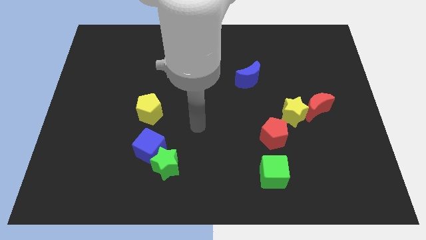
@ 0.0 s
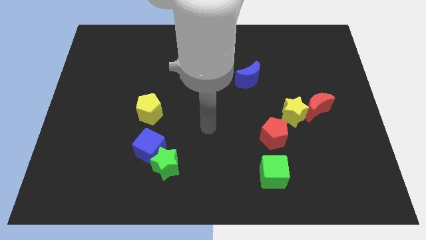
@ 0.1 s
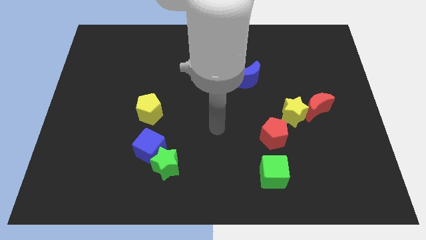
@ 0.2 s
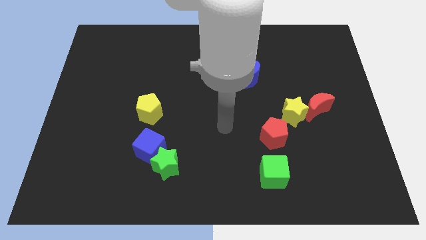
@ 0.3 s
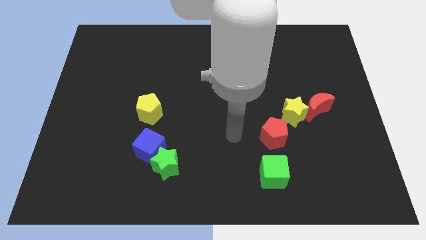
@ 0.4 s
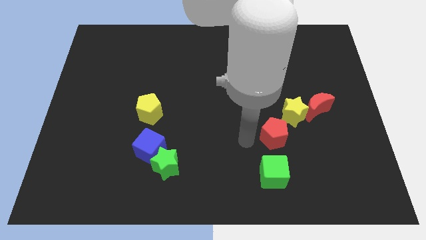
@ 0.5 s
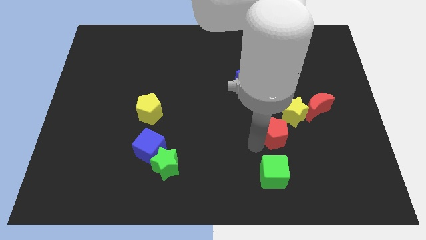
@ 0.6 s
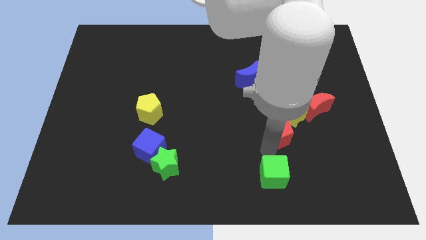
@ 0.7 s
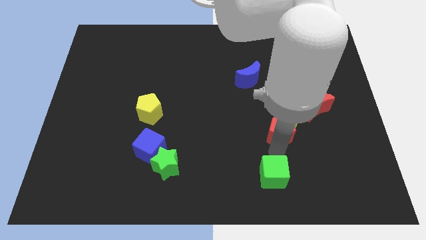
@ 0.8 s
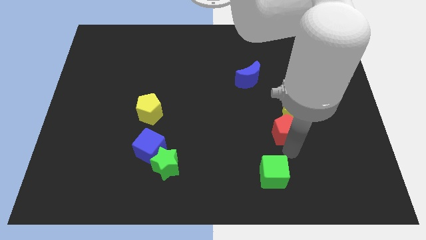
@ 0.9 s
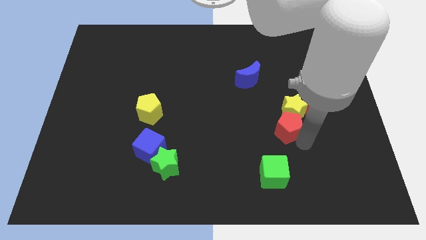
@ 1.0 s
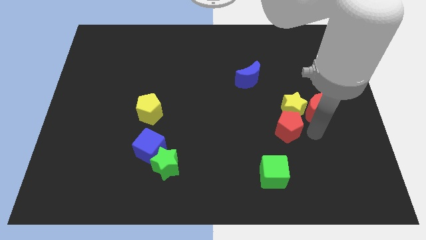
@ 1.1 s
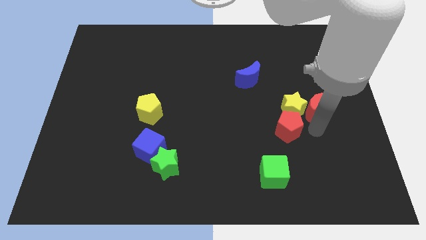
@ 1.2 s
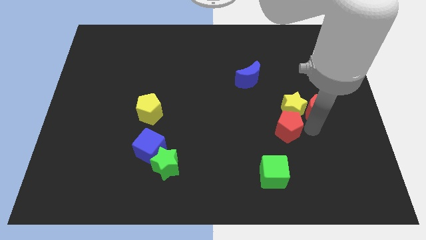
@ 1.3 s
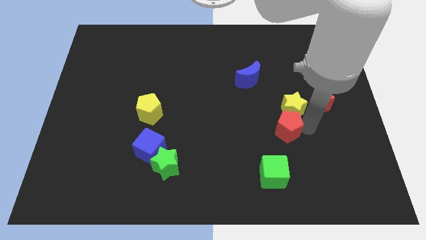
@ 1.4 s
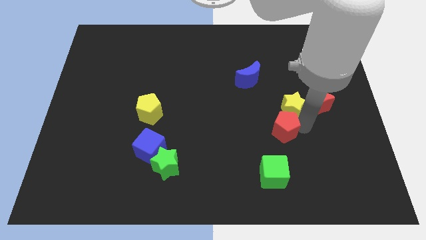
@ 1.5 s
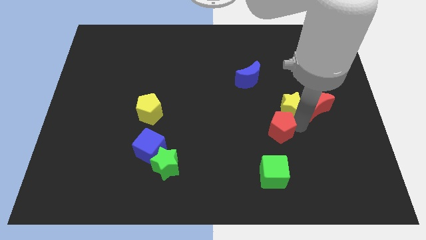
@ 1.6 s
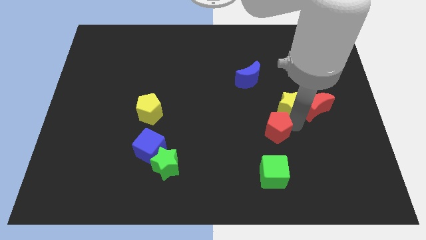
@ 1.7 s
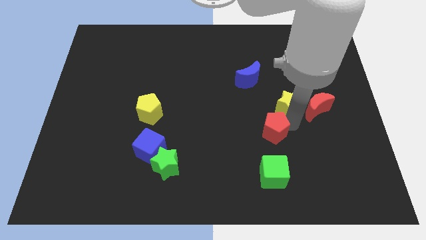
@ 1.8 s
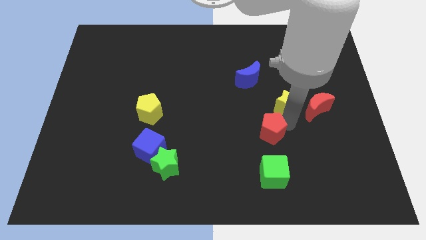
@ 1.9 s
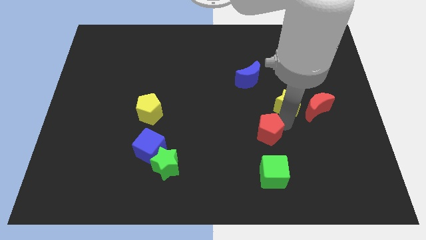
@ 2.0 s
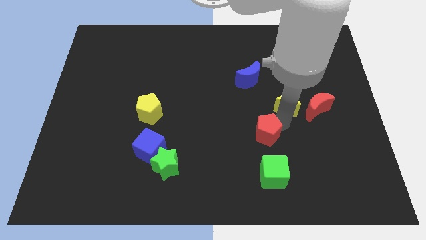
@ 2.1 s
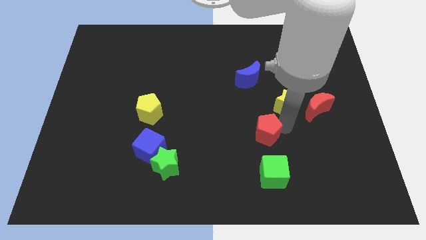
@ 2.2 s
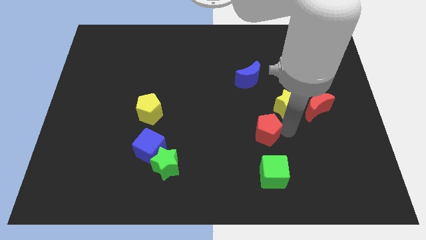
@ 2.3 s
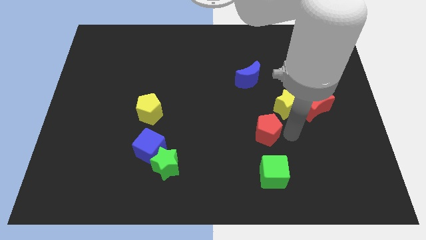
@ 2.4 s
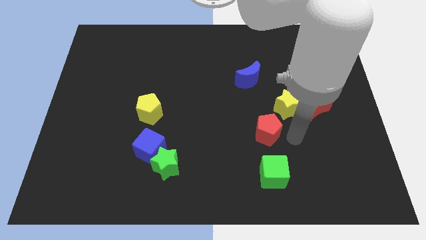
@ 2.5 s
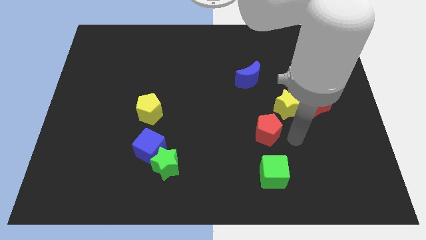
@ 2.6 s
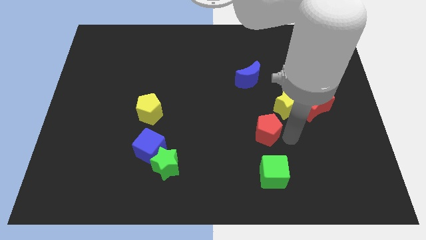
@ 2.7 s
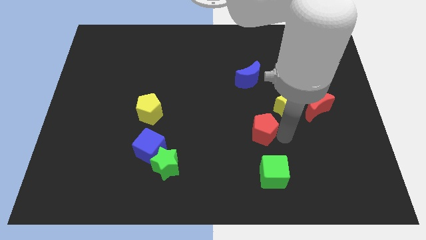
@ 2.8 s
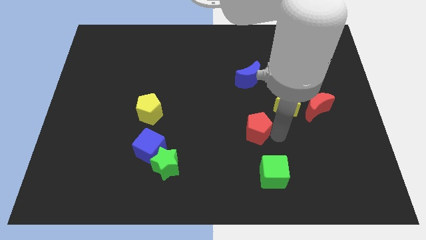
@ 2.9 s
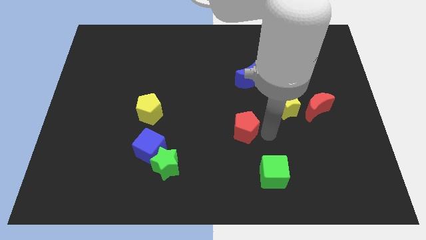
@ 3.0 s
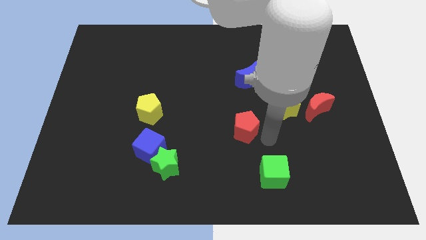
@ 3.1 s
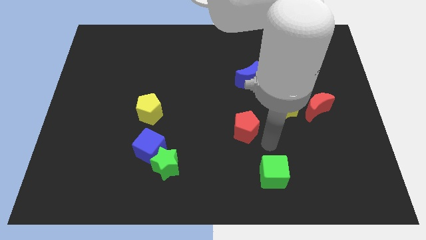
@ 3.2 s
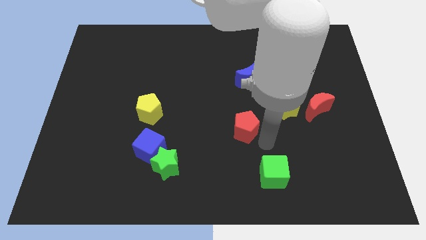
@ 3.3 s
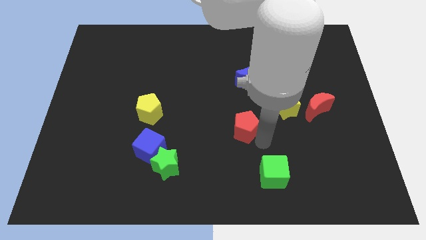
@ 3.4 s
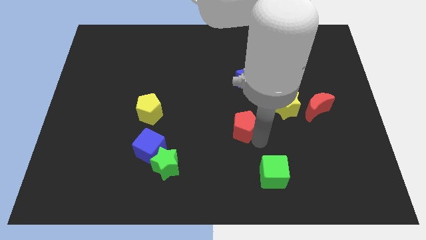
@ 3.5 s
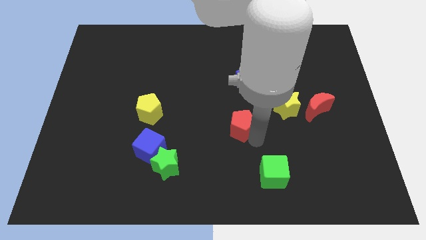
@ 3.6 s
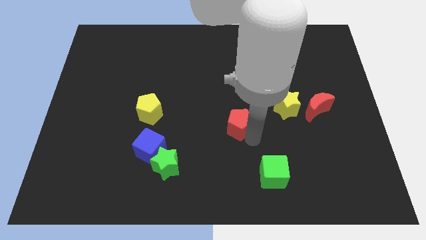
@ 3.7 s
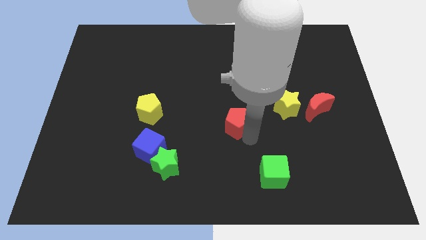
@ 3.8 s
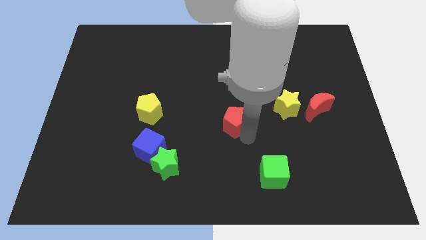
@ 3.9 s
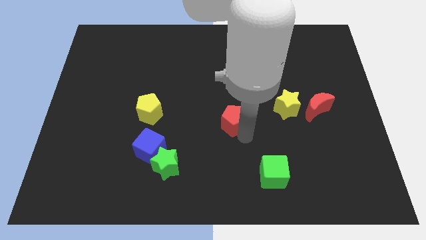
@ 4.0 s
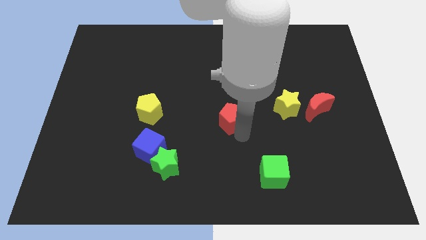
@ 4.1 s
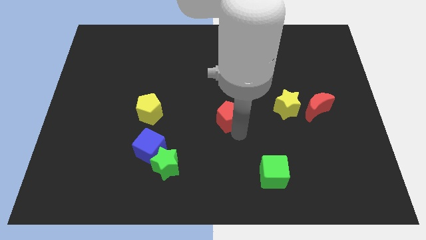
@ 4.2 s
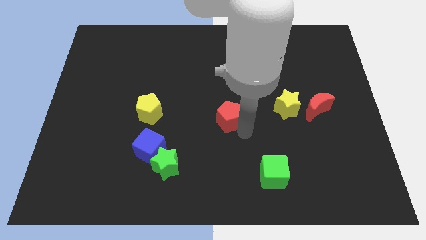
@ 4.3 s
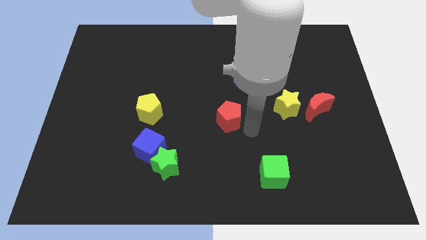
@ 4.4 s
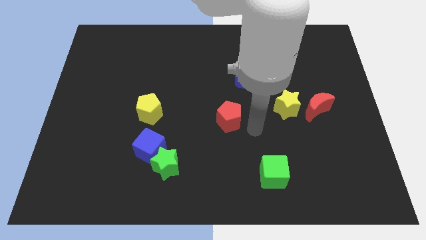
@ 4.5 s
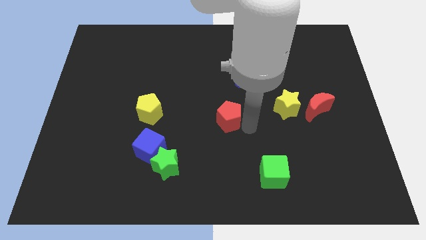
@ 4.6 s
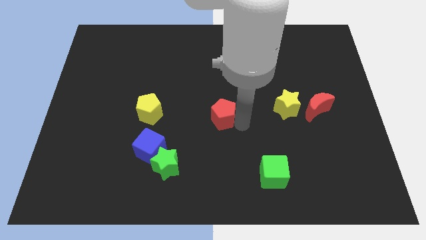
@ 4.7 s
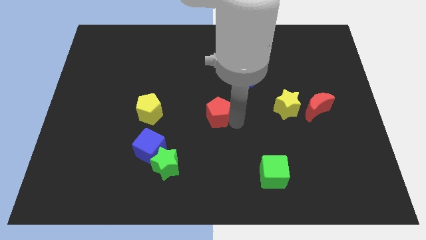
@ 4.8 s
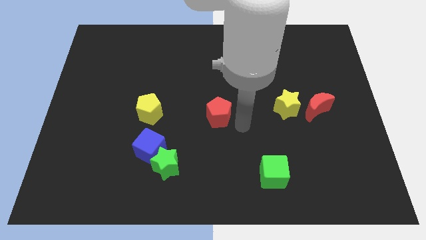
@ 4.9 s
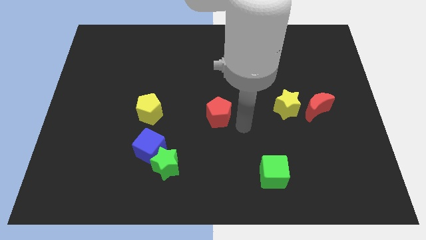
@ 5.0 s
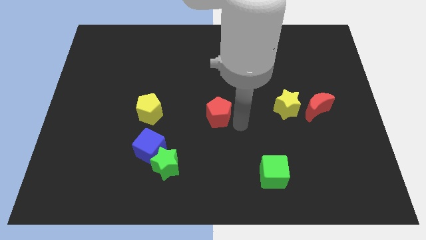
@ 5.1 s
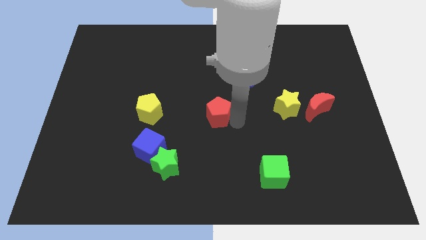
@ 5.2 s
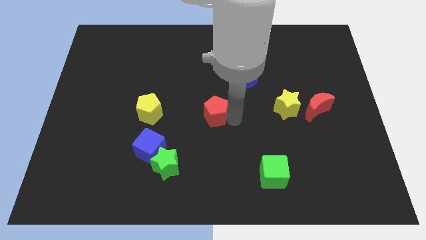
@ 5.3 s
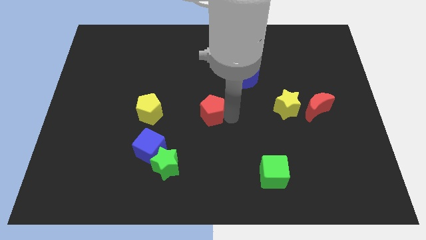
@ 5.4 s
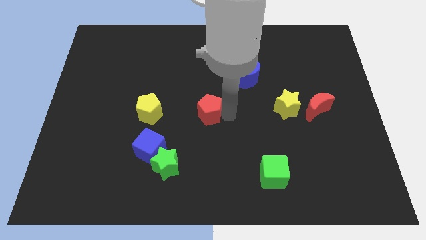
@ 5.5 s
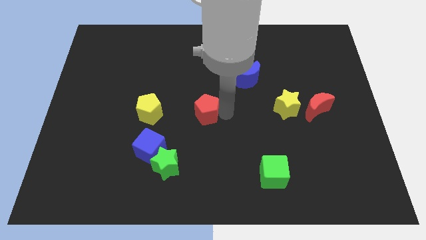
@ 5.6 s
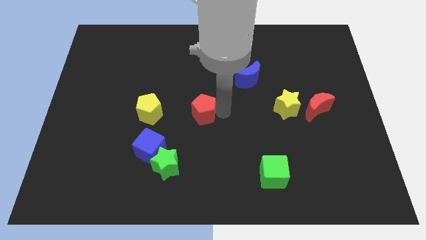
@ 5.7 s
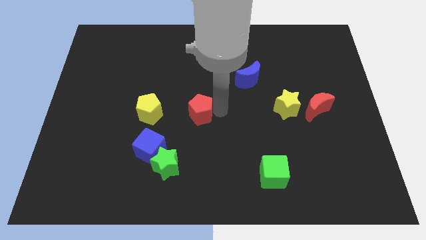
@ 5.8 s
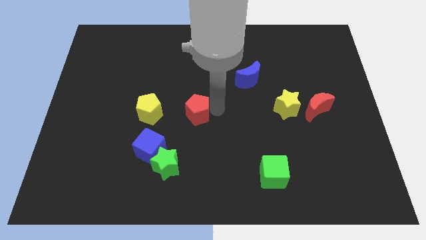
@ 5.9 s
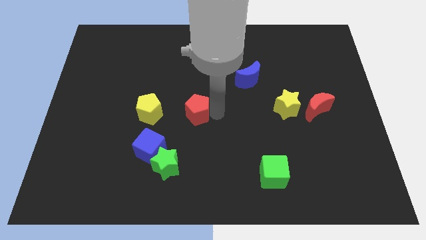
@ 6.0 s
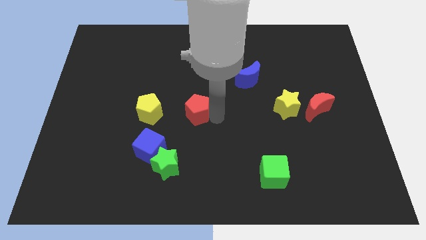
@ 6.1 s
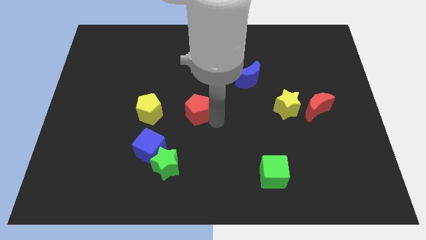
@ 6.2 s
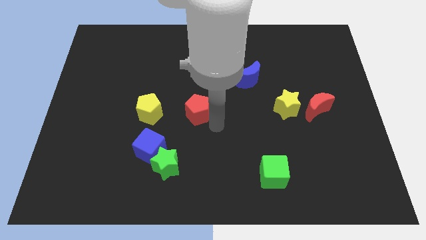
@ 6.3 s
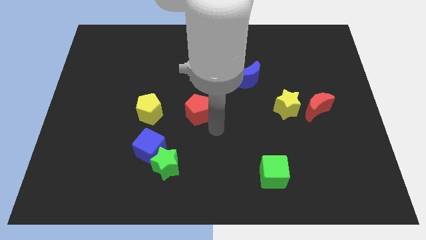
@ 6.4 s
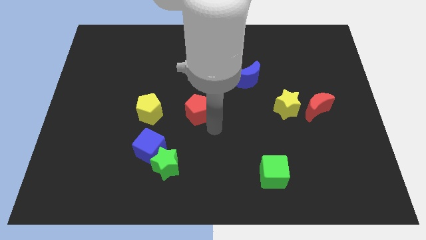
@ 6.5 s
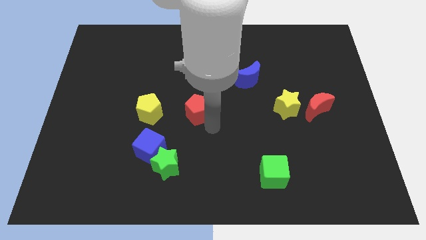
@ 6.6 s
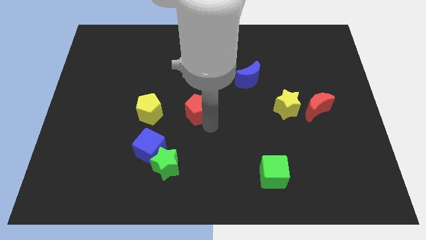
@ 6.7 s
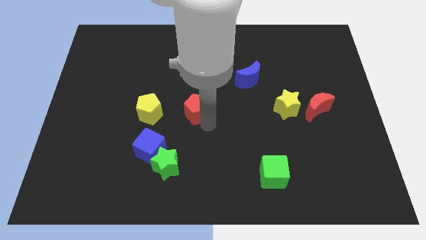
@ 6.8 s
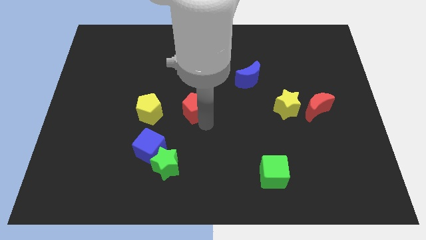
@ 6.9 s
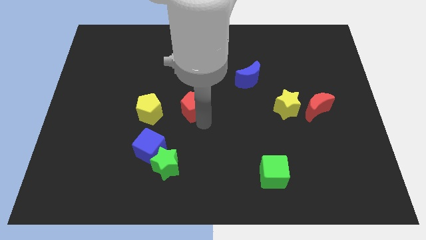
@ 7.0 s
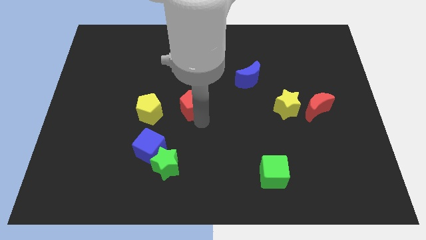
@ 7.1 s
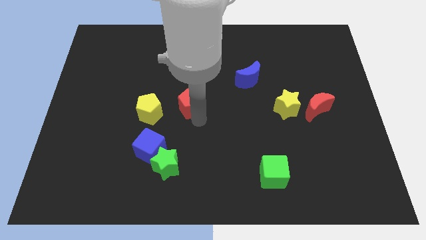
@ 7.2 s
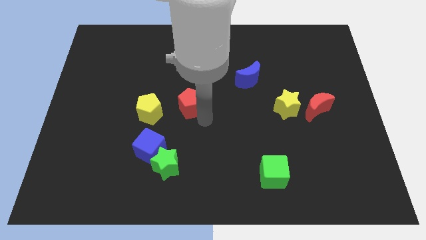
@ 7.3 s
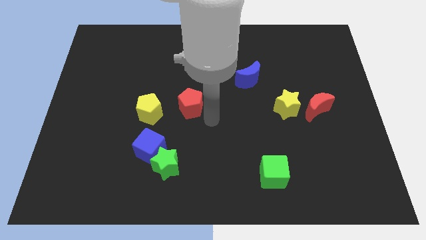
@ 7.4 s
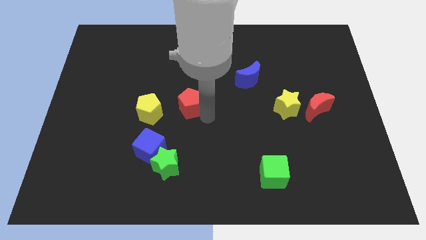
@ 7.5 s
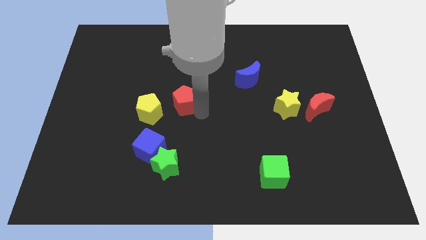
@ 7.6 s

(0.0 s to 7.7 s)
move the red pentagon diagonally up and to the right of the yellow pentagon

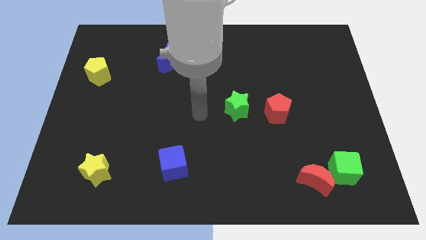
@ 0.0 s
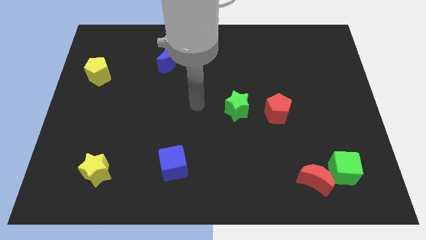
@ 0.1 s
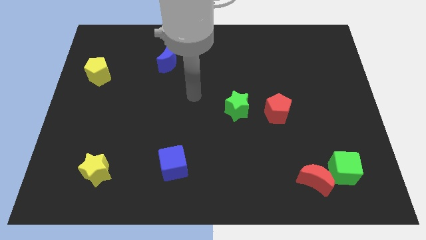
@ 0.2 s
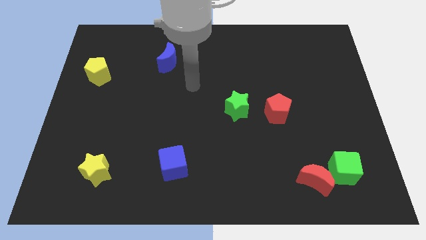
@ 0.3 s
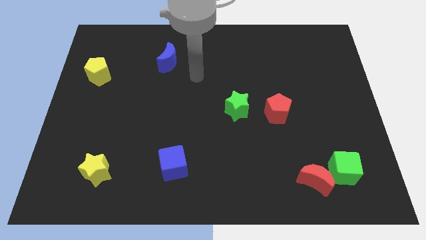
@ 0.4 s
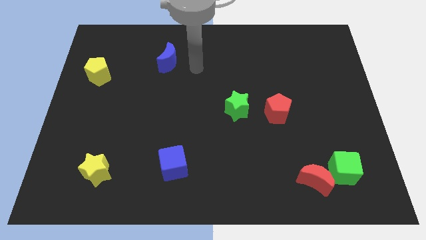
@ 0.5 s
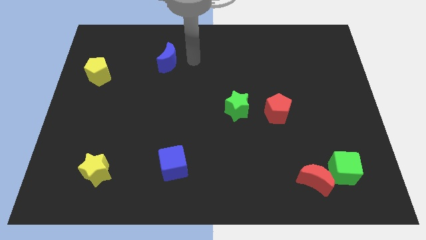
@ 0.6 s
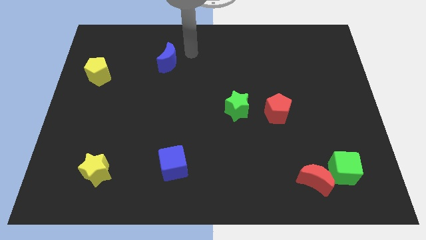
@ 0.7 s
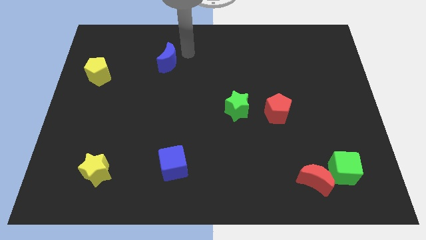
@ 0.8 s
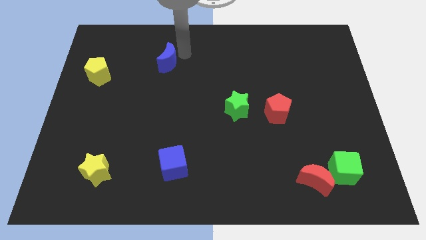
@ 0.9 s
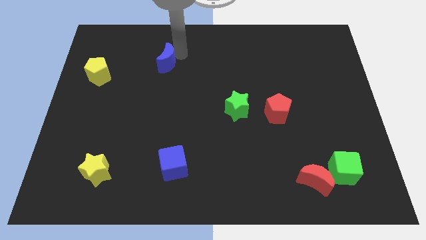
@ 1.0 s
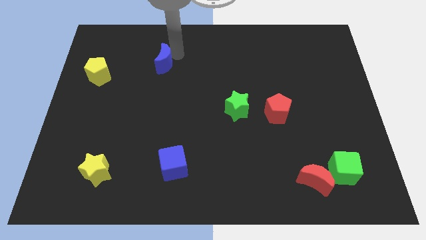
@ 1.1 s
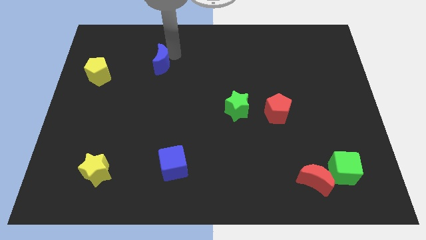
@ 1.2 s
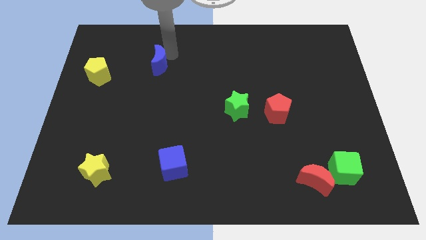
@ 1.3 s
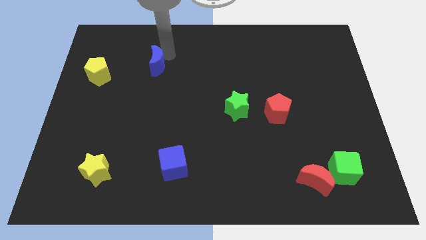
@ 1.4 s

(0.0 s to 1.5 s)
push the blue moon to the right of the yellow pentagon
